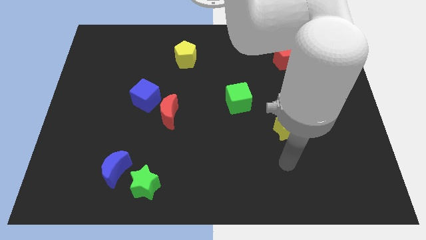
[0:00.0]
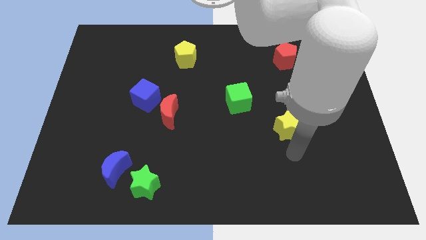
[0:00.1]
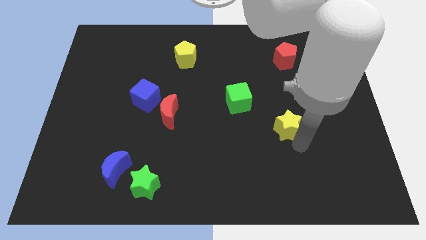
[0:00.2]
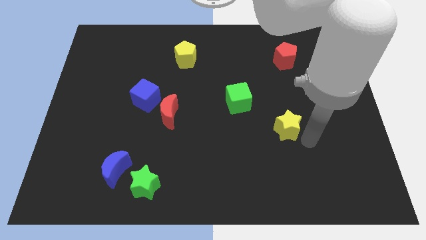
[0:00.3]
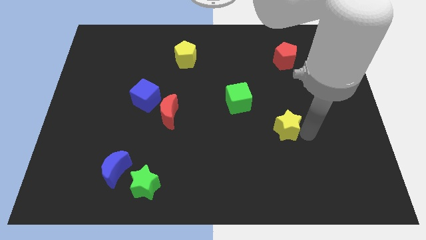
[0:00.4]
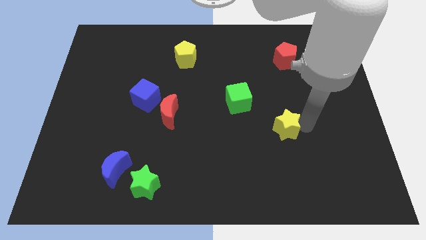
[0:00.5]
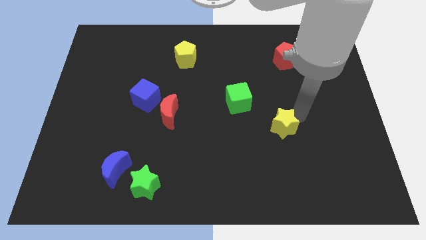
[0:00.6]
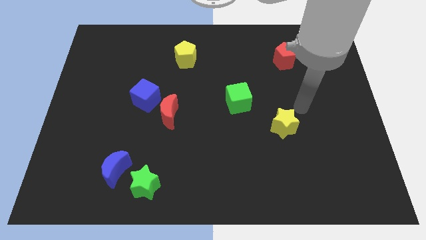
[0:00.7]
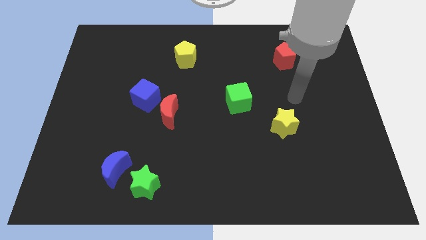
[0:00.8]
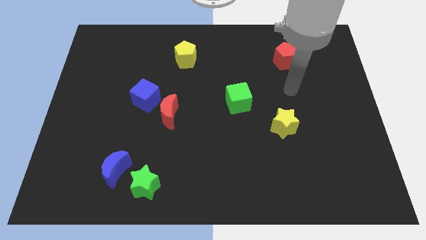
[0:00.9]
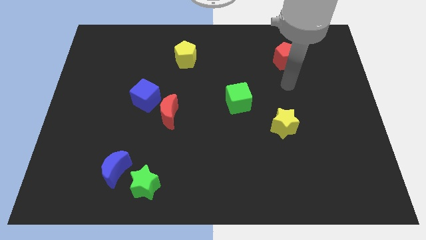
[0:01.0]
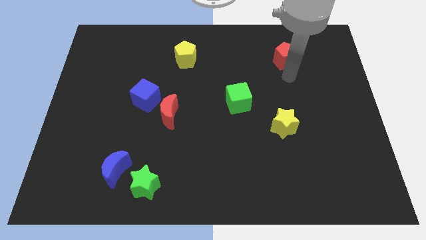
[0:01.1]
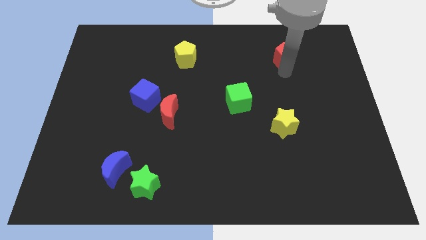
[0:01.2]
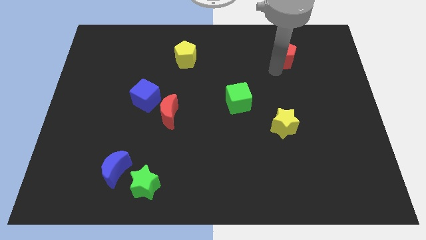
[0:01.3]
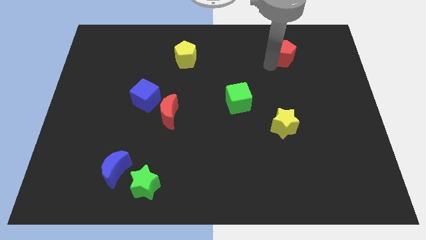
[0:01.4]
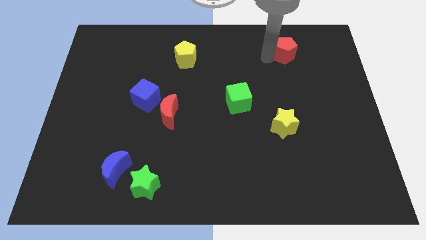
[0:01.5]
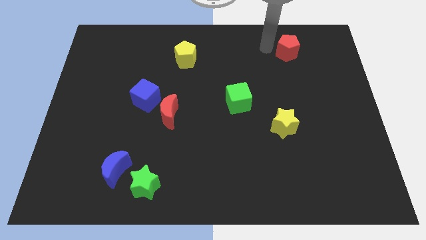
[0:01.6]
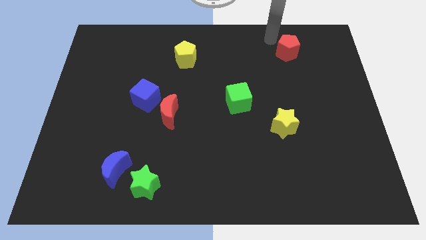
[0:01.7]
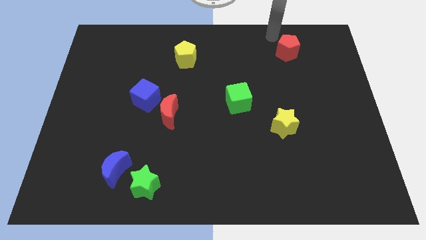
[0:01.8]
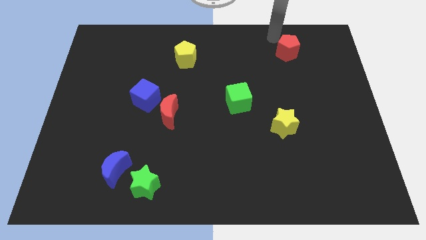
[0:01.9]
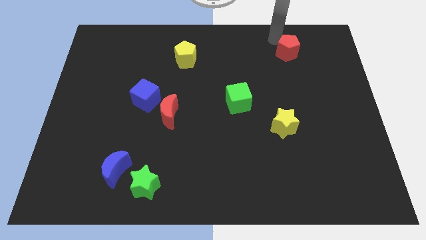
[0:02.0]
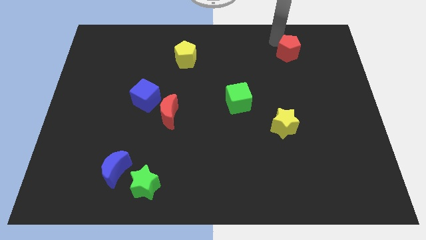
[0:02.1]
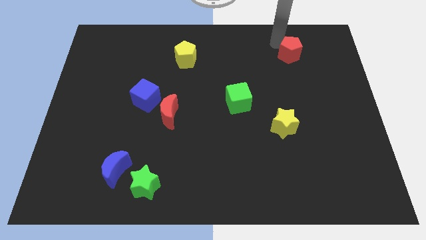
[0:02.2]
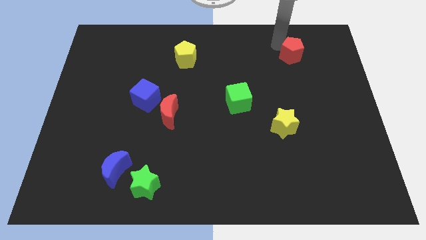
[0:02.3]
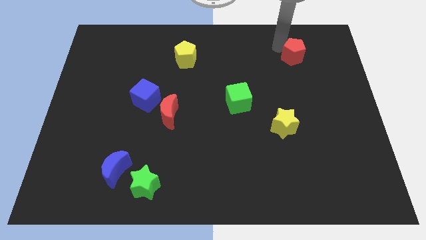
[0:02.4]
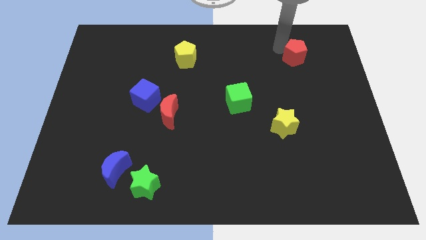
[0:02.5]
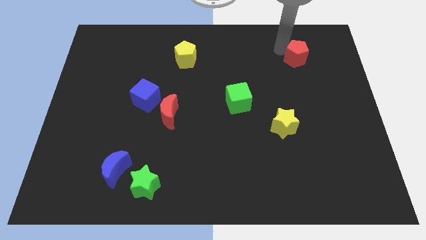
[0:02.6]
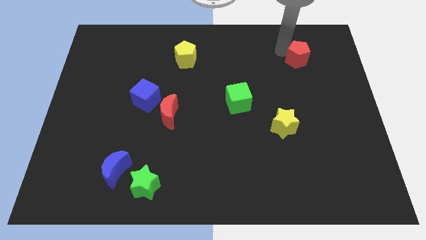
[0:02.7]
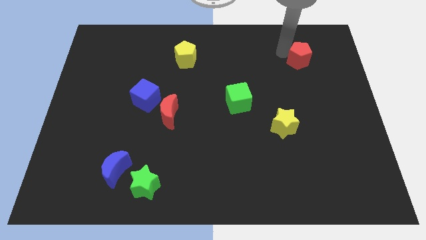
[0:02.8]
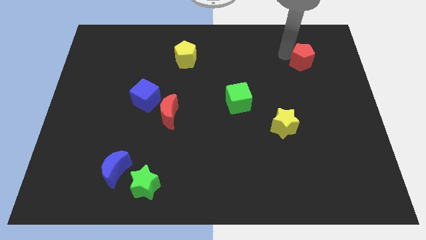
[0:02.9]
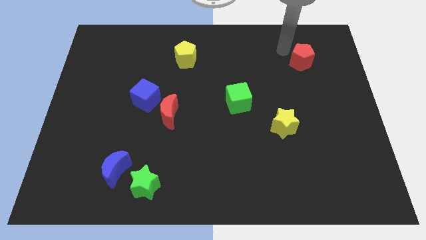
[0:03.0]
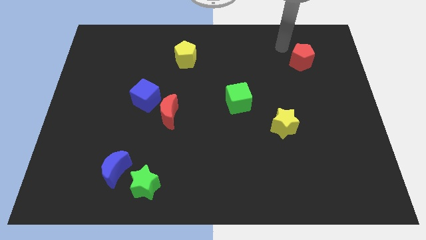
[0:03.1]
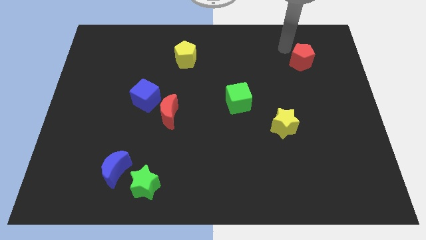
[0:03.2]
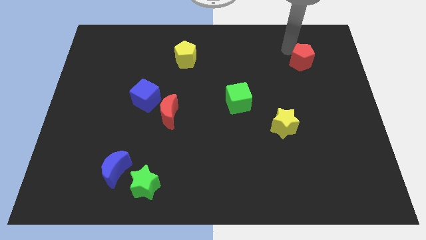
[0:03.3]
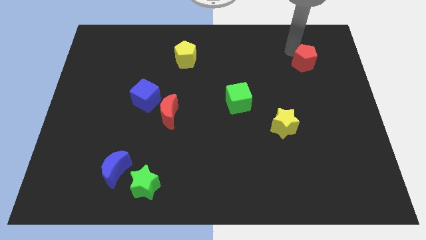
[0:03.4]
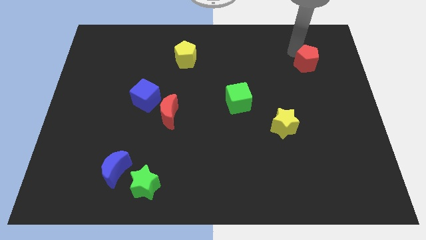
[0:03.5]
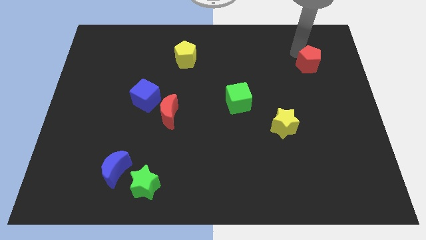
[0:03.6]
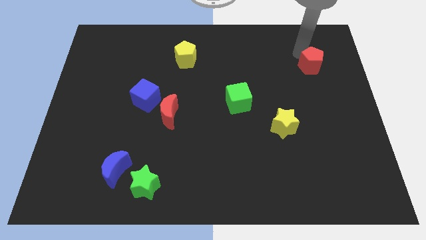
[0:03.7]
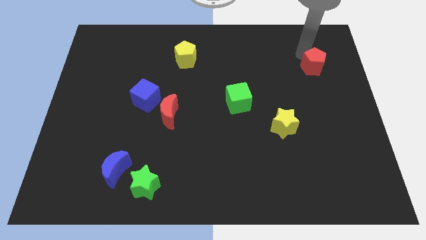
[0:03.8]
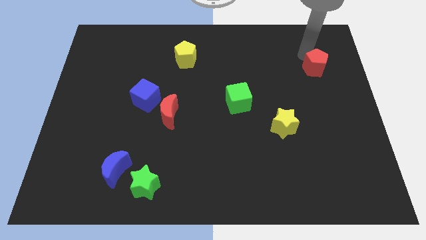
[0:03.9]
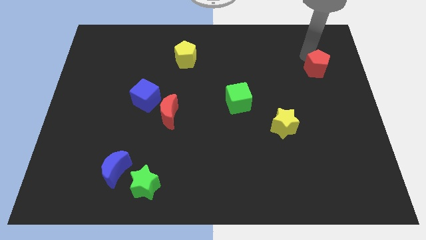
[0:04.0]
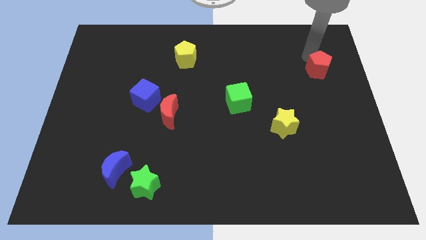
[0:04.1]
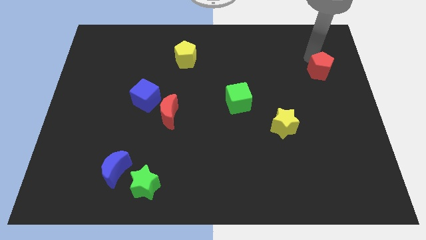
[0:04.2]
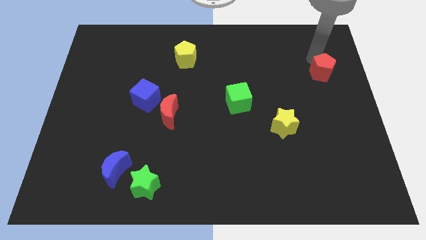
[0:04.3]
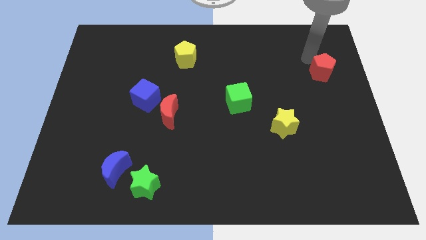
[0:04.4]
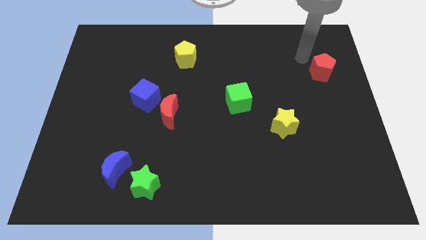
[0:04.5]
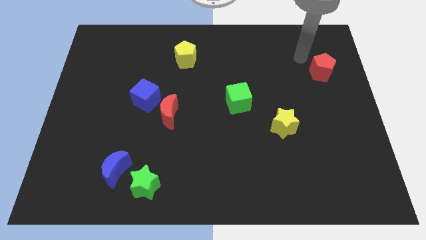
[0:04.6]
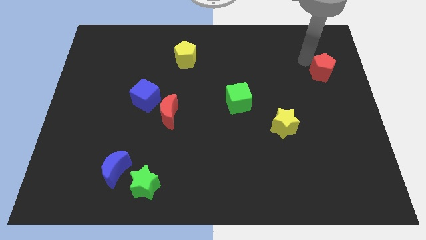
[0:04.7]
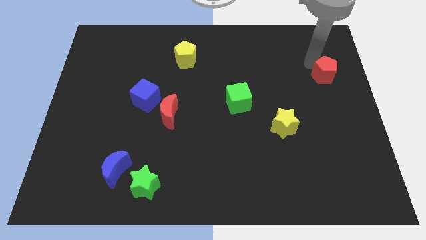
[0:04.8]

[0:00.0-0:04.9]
push the red pentagon to the right side

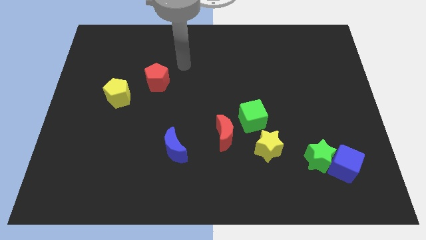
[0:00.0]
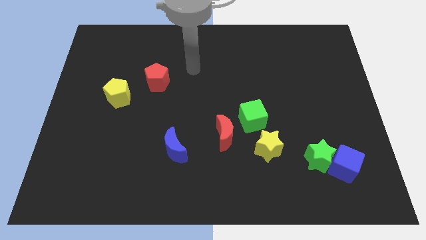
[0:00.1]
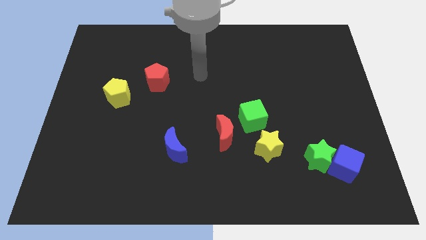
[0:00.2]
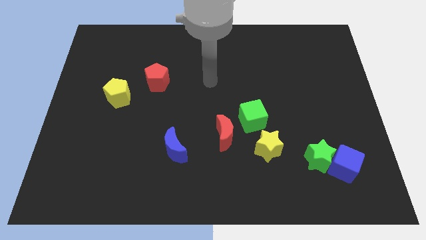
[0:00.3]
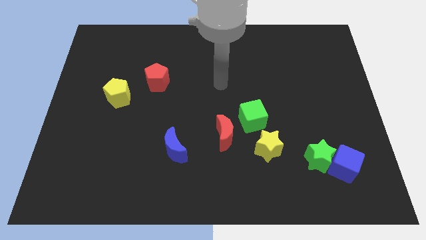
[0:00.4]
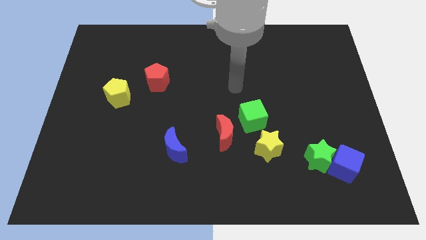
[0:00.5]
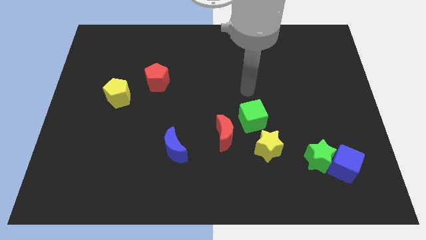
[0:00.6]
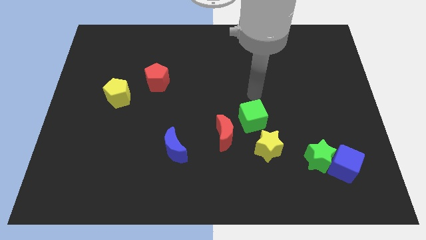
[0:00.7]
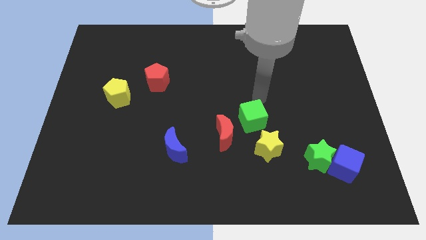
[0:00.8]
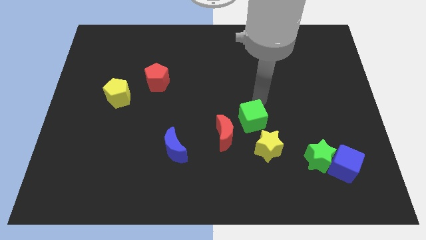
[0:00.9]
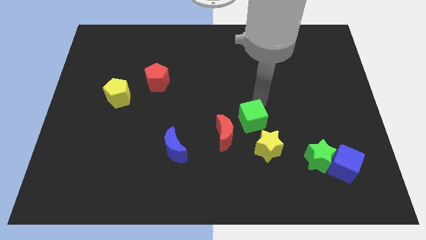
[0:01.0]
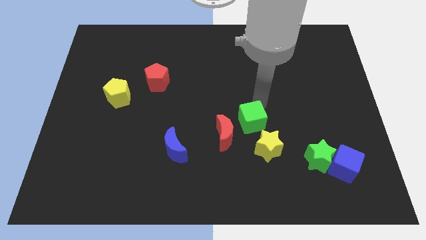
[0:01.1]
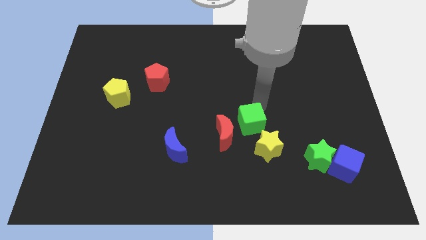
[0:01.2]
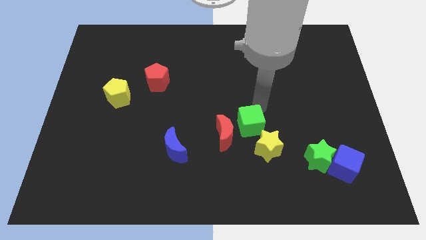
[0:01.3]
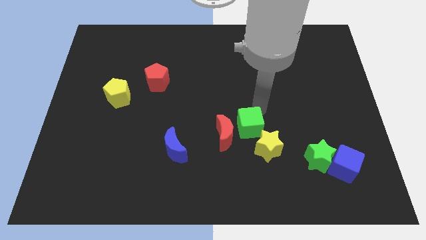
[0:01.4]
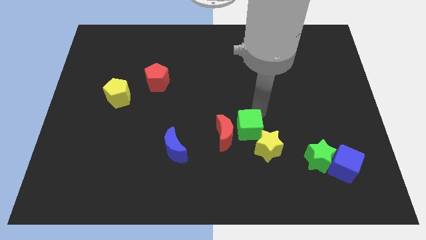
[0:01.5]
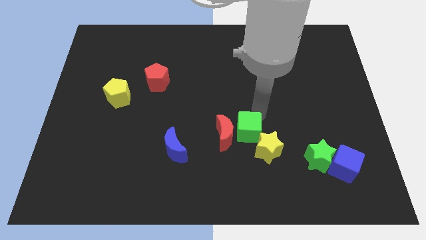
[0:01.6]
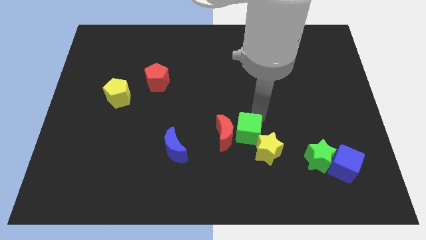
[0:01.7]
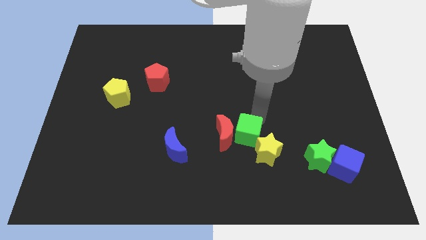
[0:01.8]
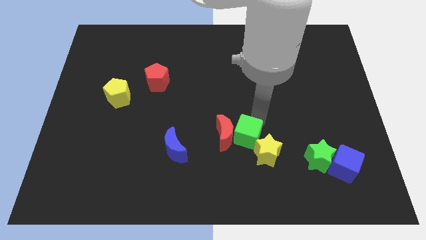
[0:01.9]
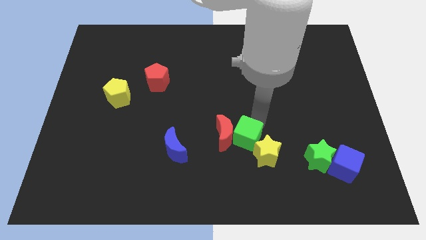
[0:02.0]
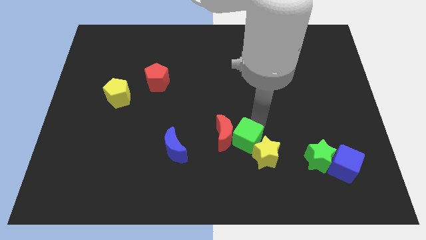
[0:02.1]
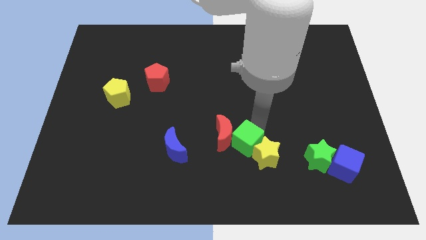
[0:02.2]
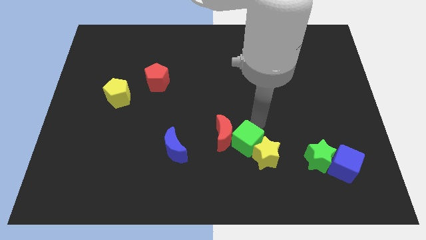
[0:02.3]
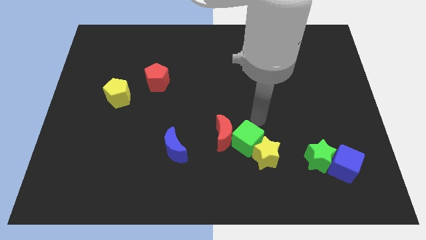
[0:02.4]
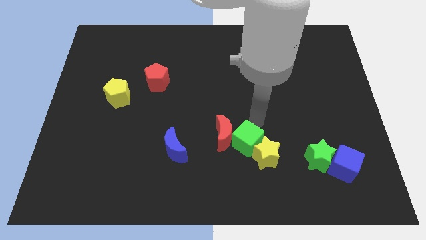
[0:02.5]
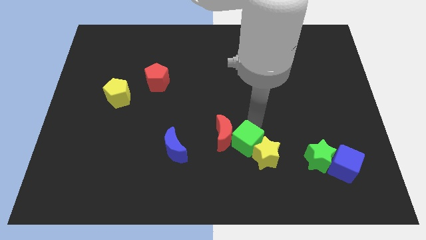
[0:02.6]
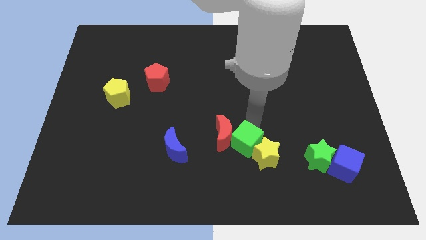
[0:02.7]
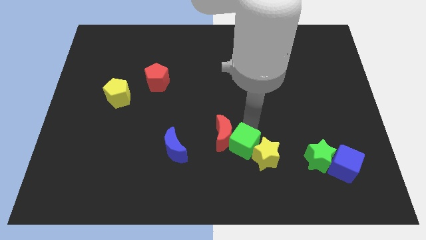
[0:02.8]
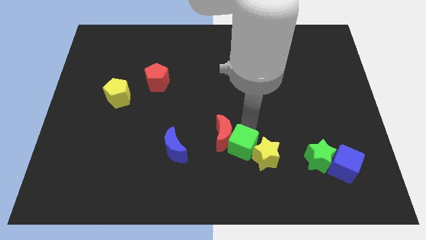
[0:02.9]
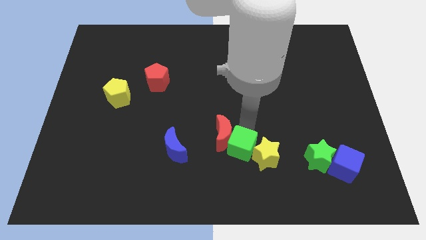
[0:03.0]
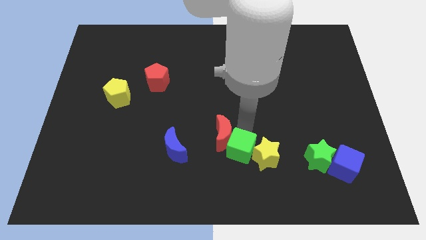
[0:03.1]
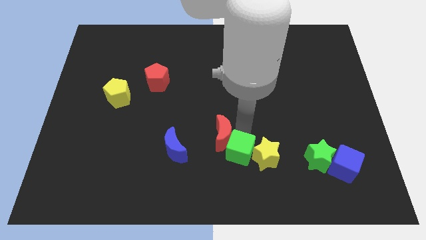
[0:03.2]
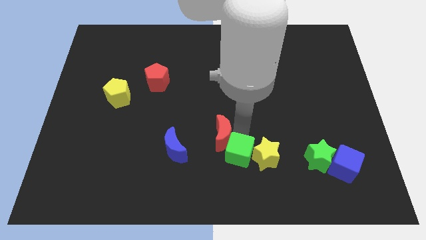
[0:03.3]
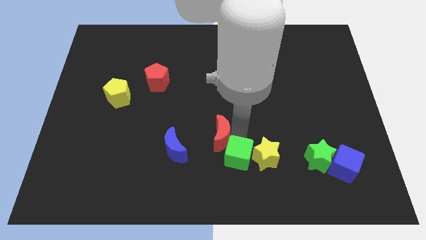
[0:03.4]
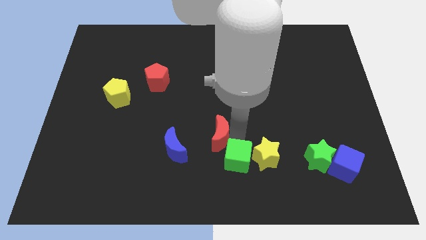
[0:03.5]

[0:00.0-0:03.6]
put the green cube to the bottom side
